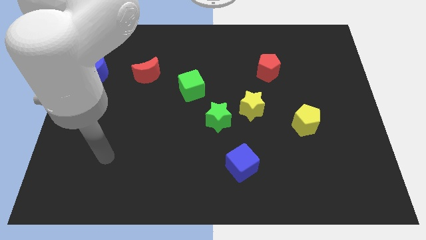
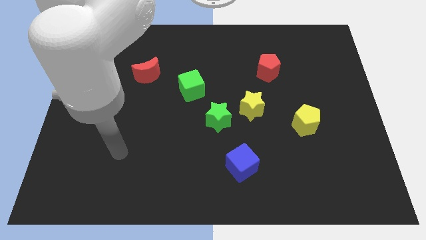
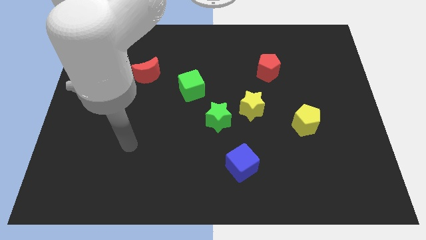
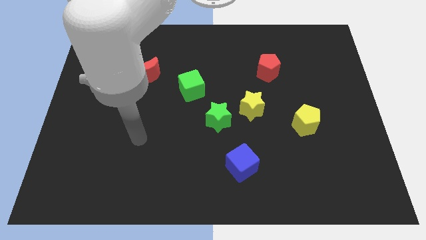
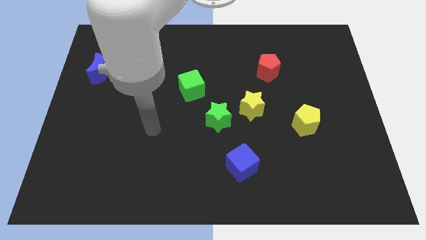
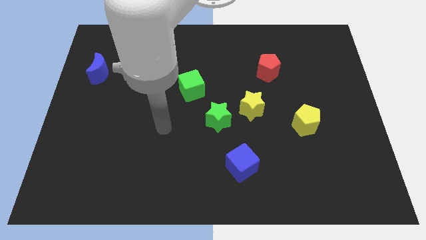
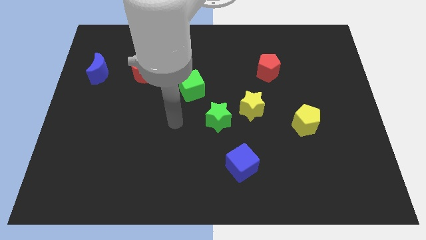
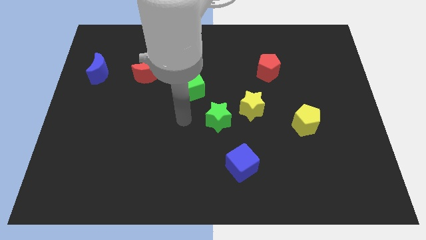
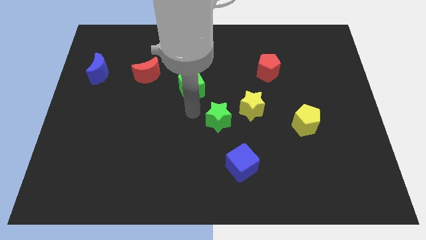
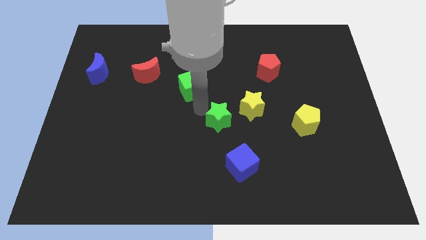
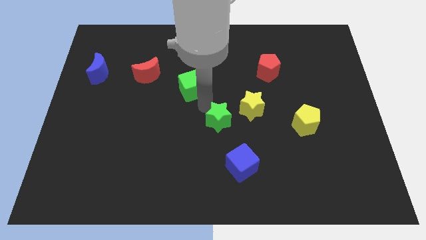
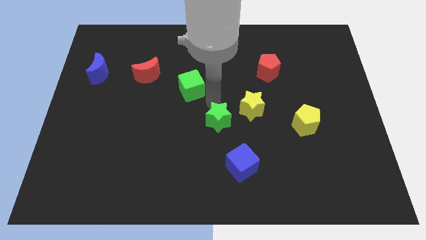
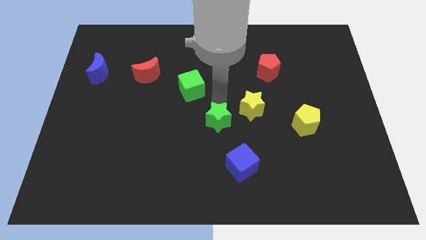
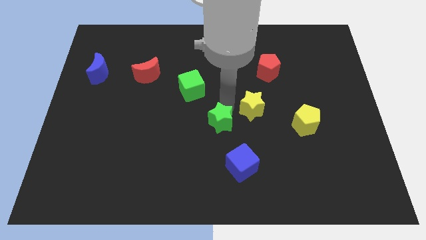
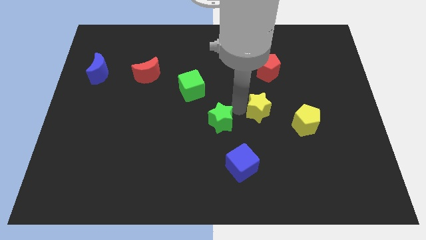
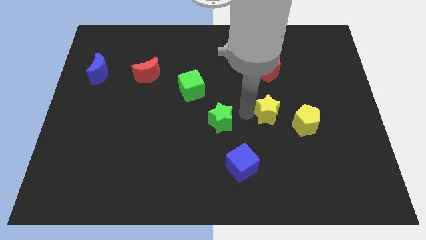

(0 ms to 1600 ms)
move the green star away from the yellow star

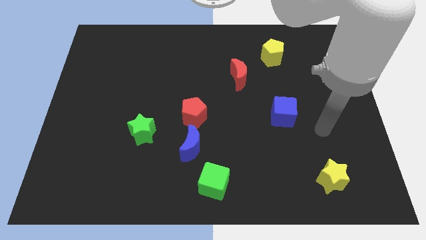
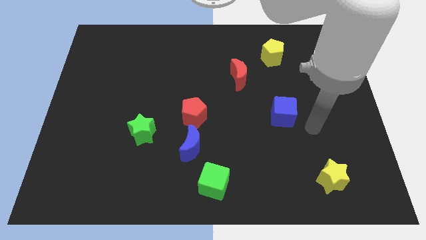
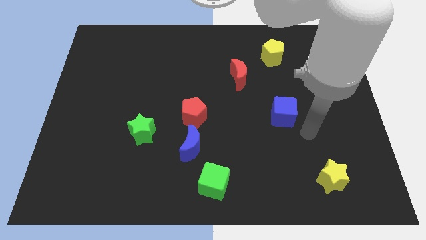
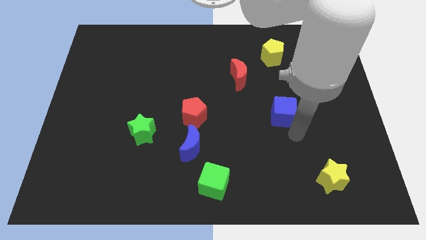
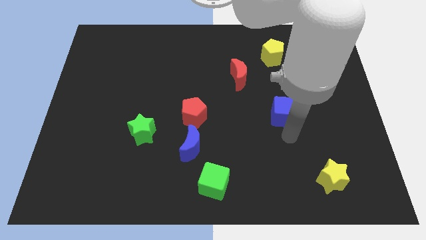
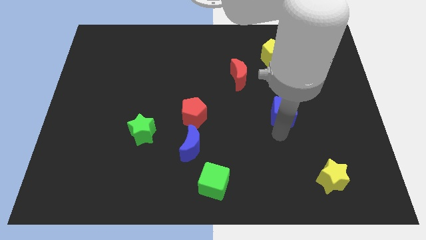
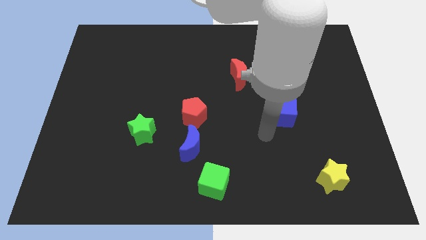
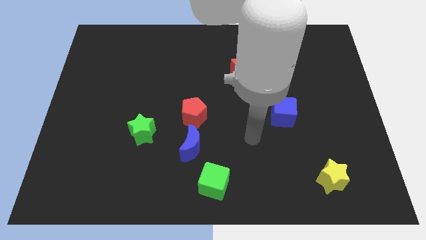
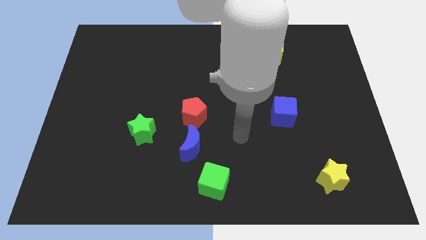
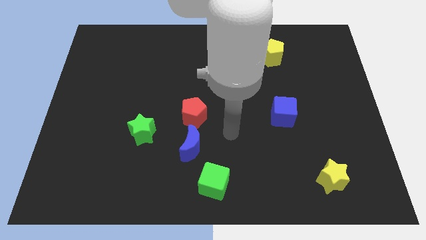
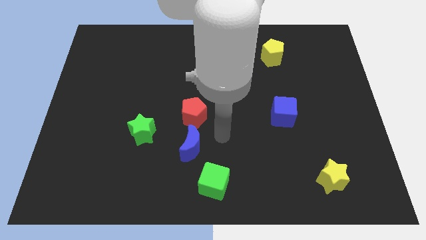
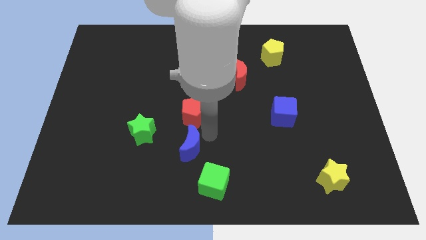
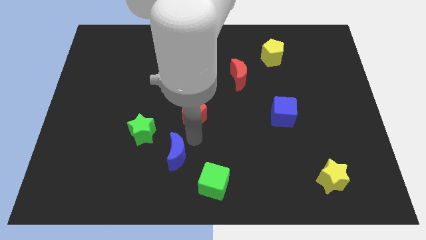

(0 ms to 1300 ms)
pull the red pentagon apart from the blue moon

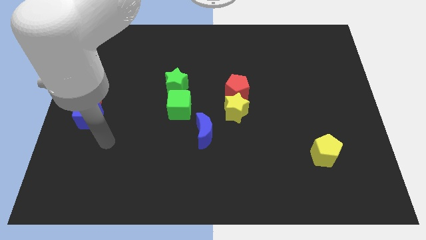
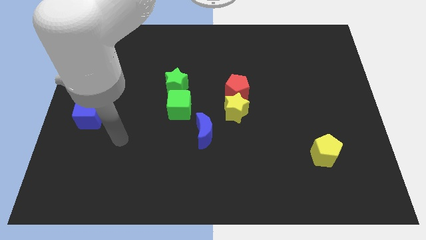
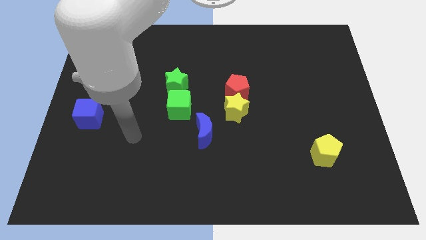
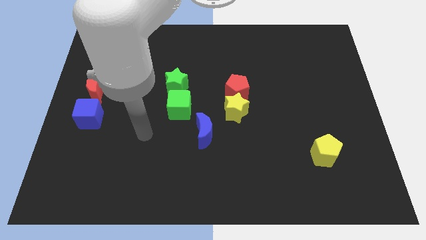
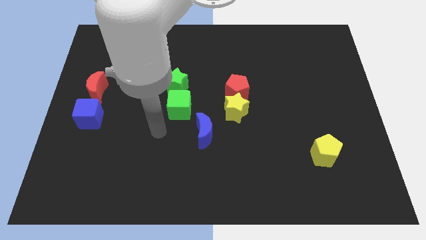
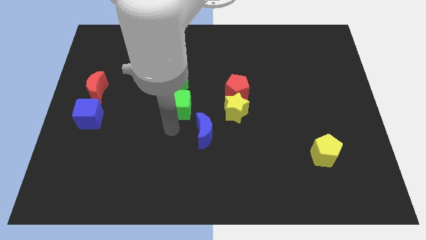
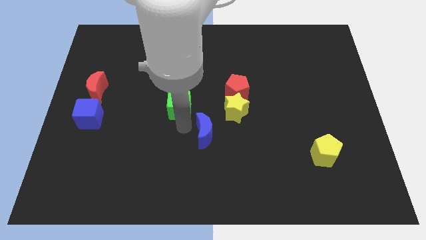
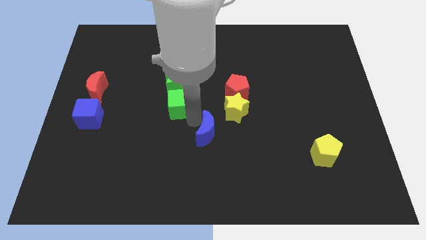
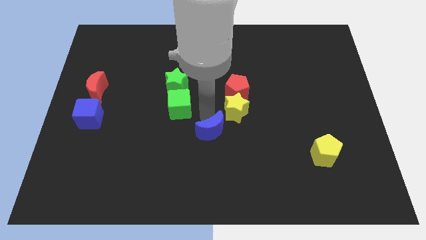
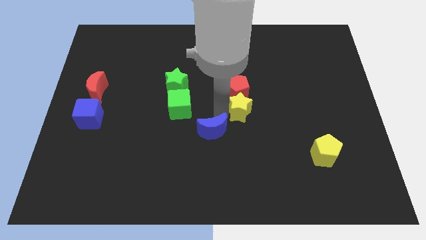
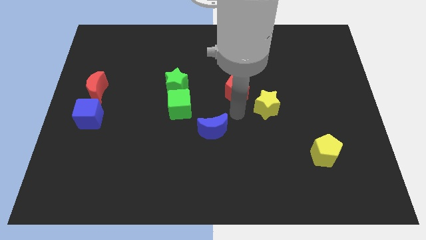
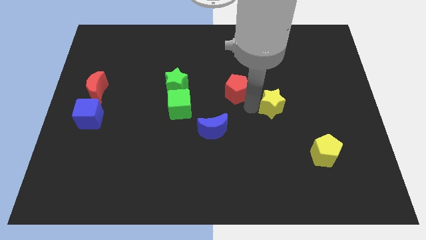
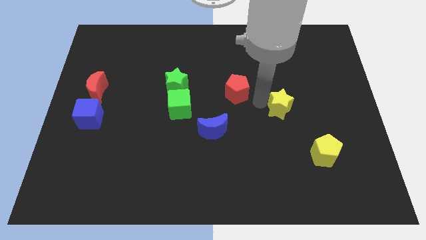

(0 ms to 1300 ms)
move the red pentagon away from the yellow star

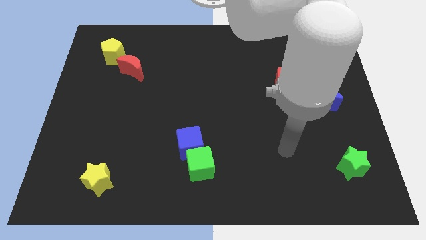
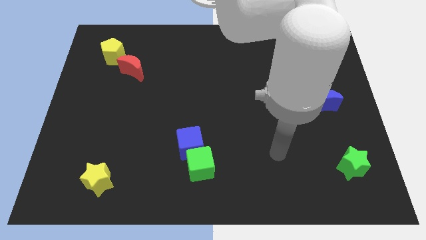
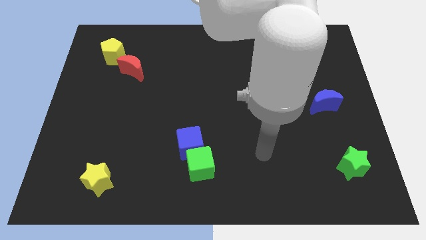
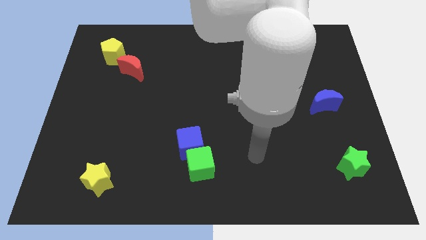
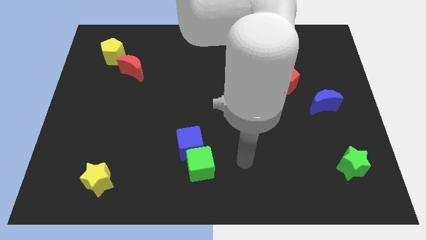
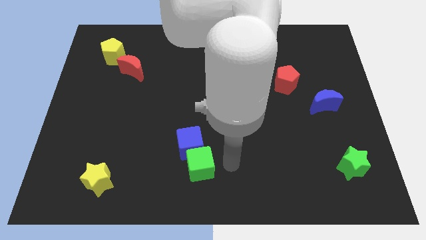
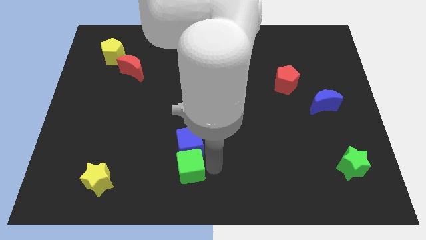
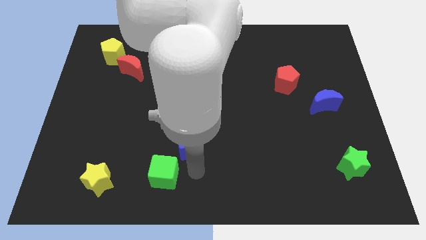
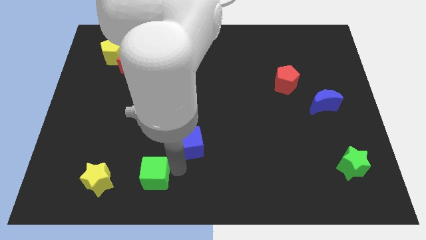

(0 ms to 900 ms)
separate the blue cube from the green cube

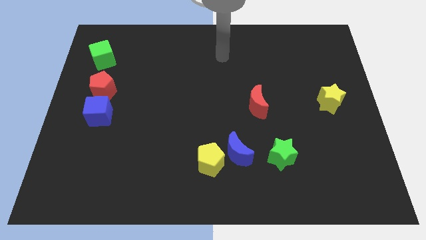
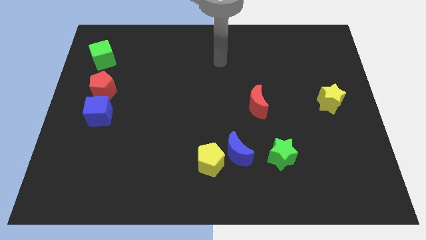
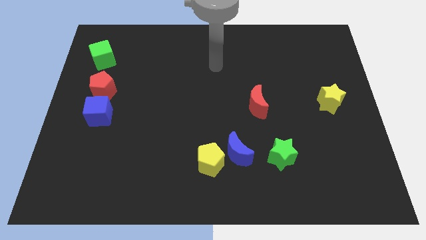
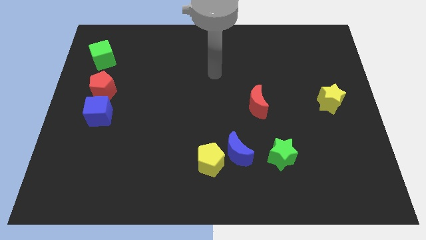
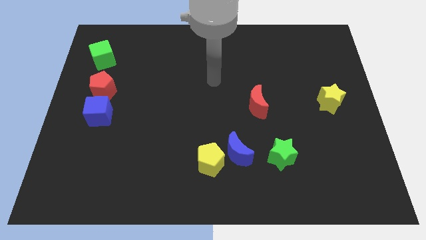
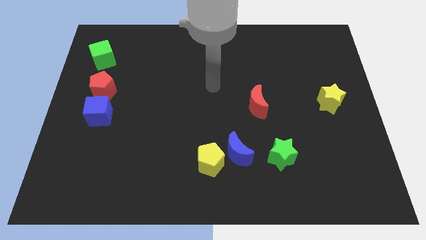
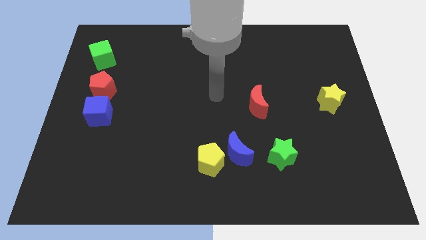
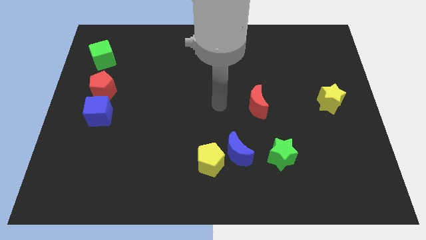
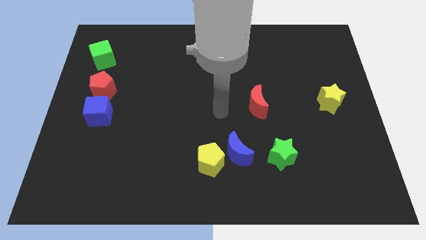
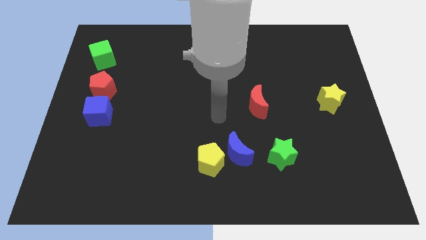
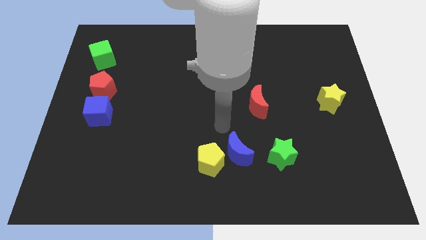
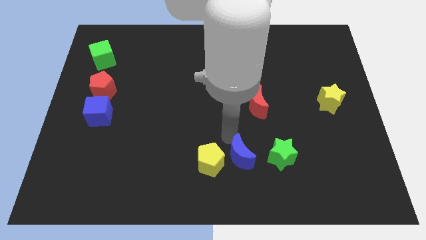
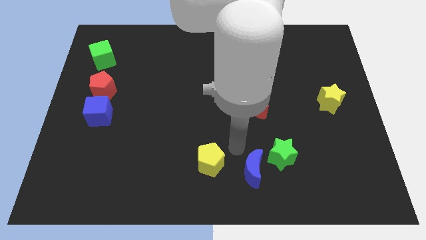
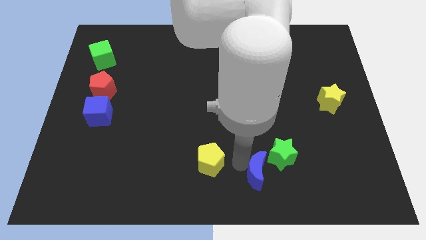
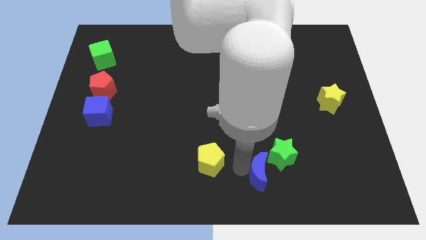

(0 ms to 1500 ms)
separate the yellow pentagon from the blue moon

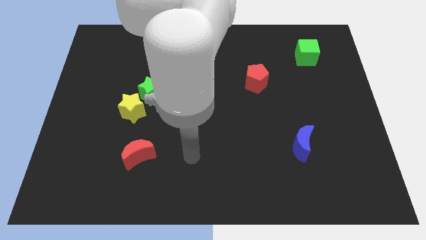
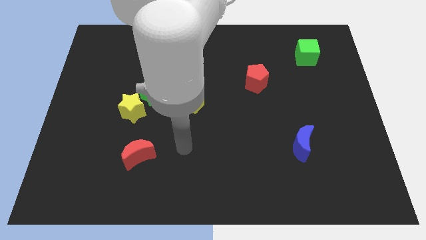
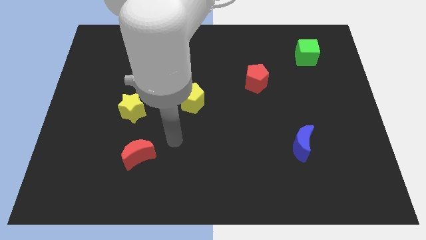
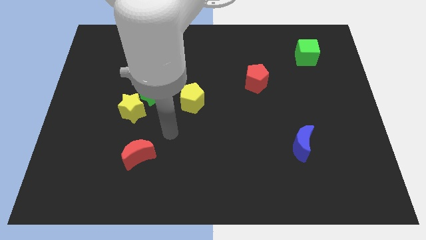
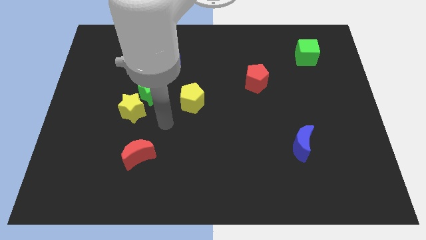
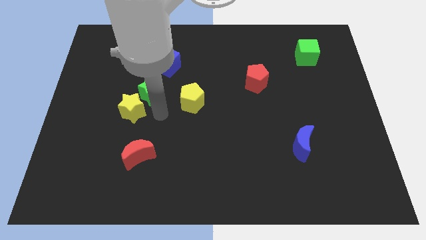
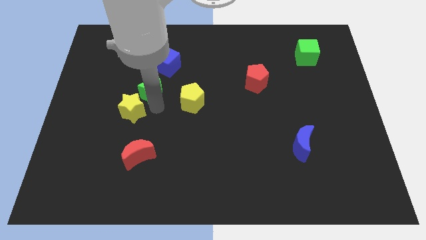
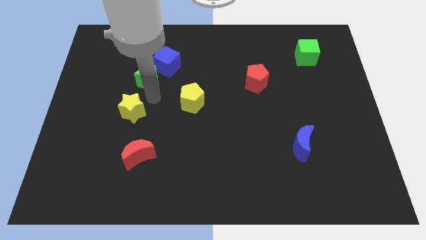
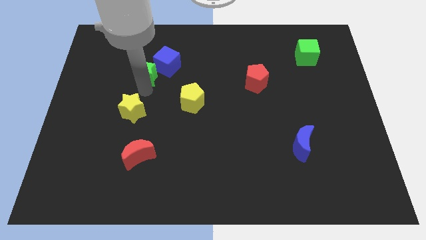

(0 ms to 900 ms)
pull the yellow star apart from the green star

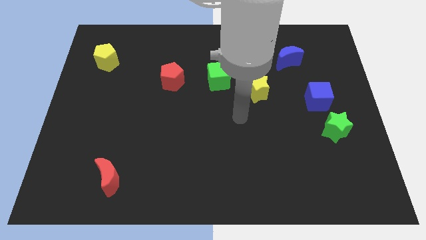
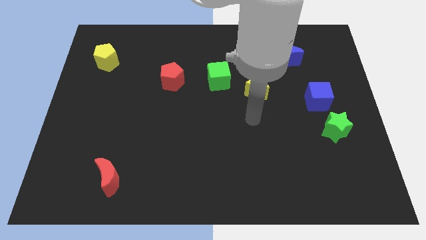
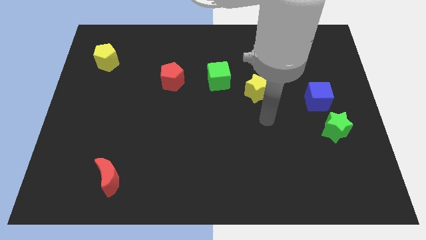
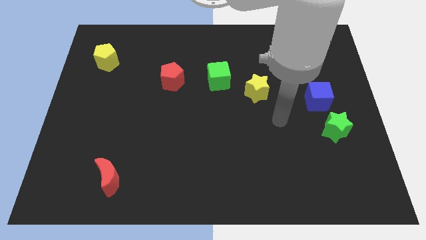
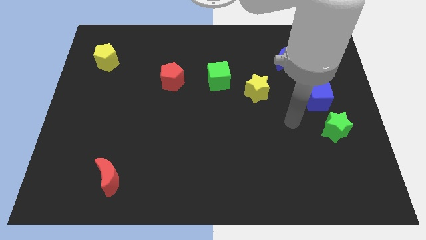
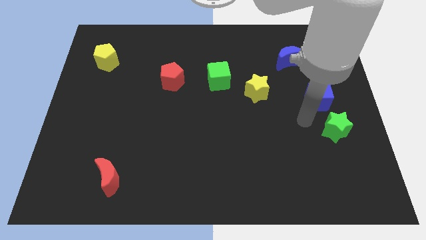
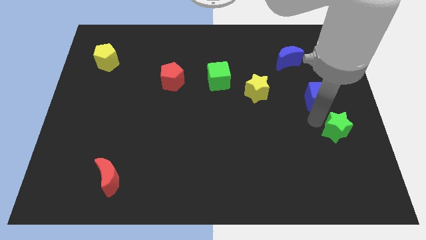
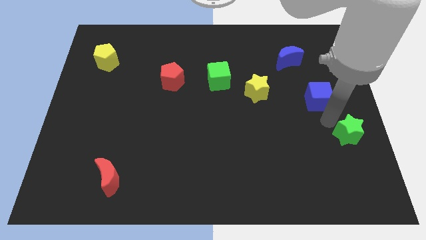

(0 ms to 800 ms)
separate the blue cube from the green star

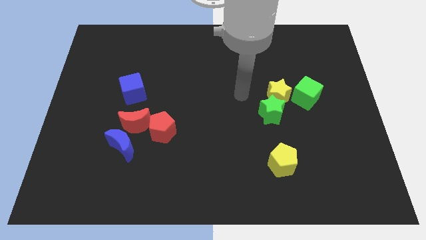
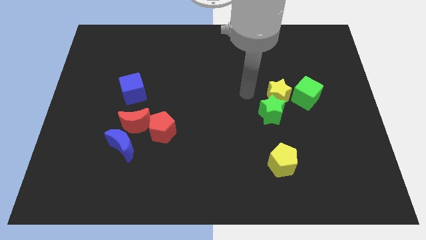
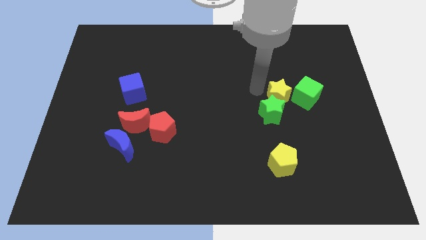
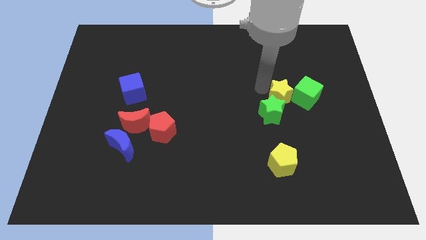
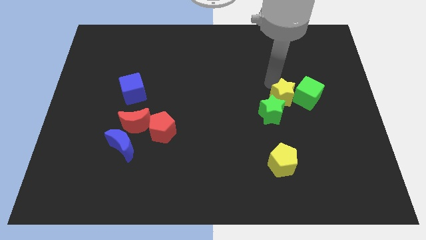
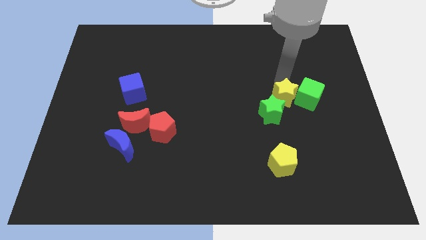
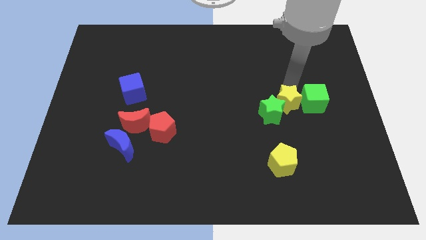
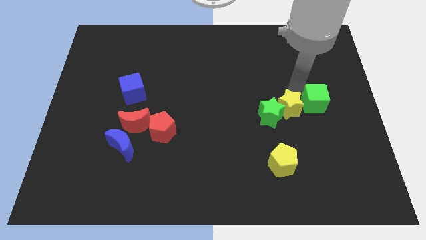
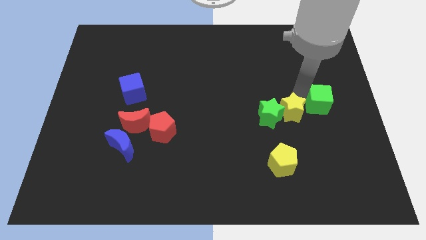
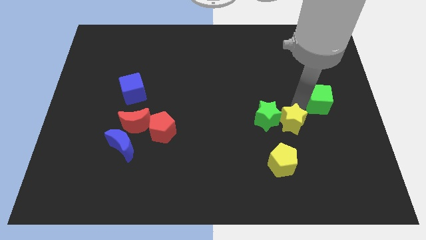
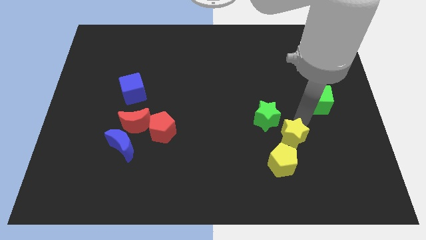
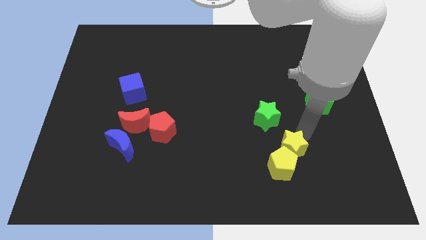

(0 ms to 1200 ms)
move the yellow star away from the green star and green cube
